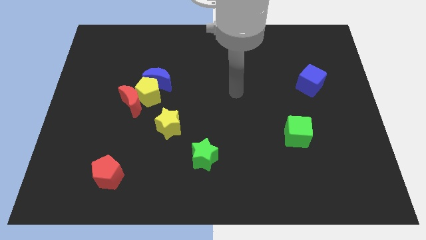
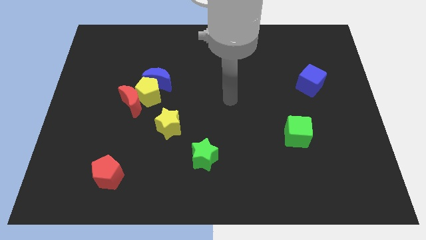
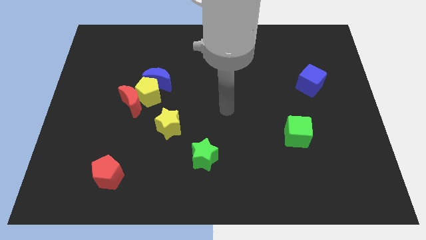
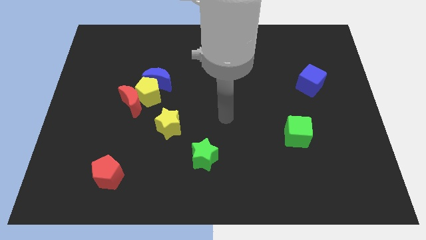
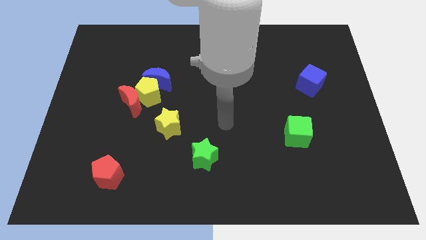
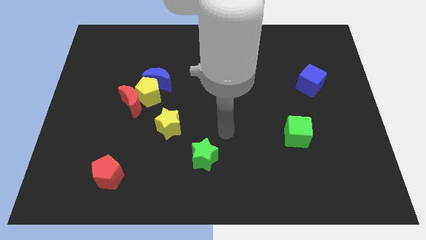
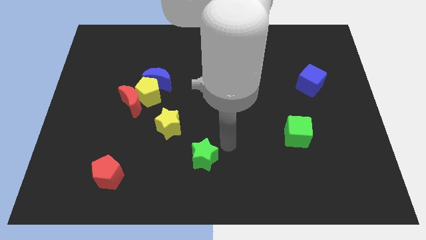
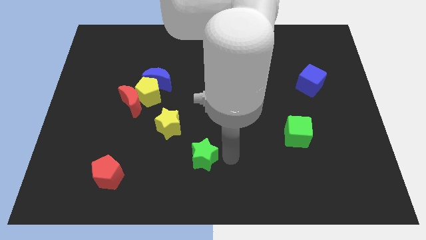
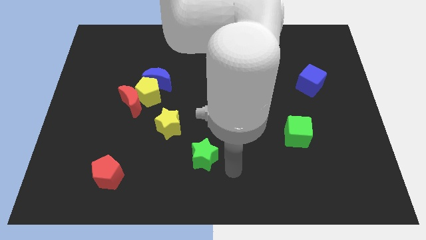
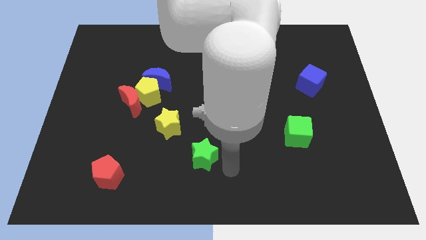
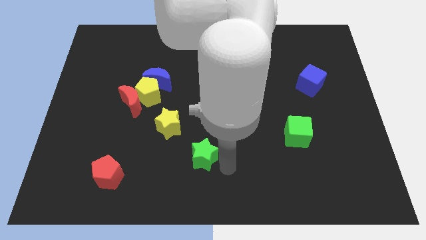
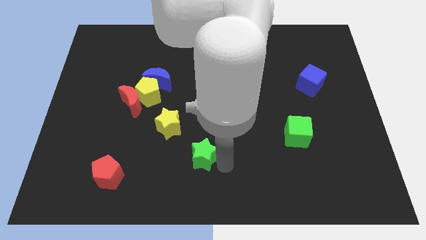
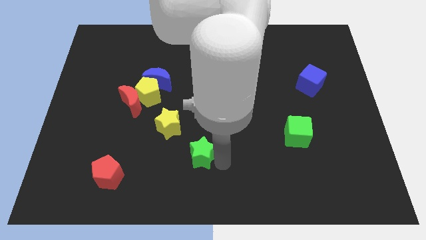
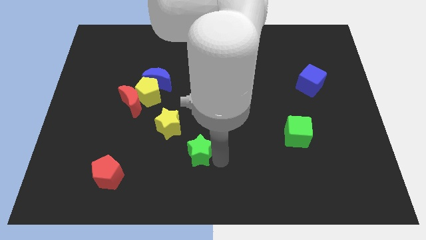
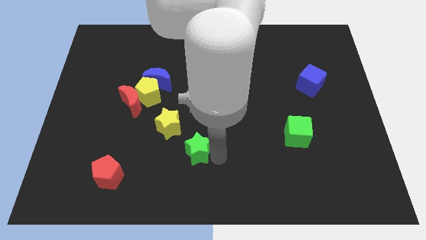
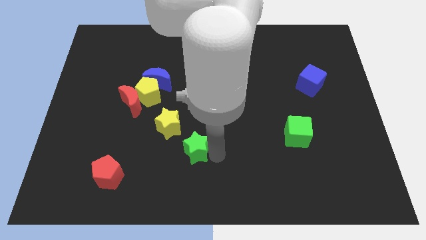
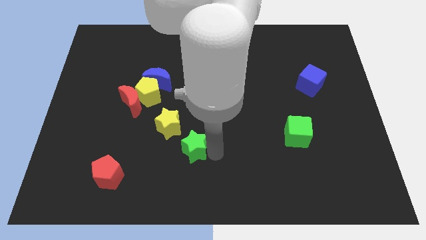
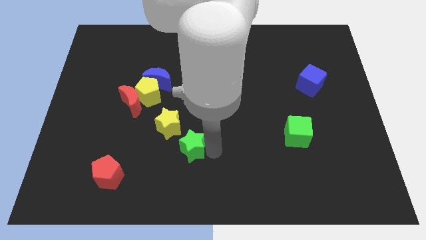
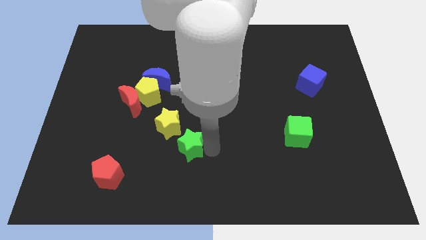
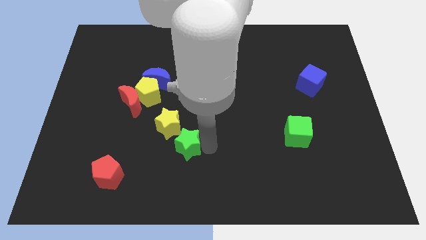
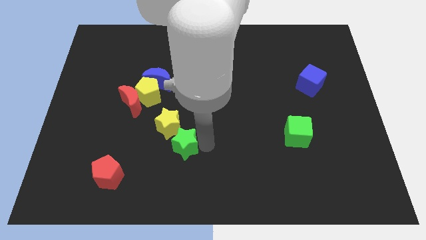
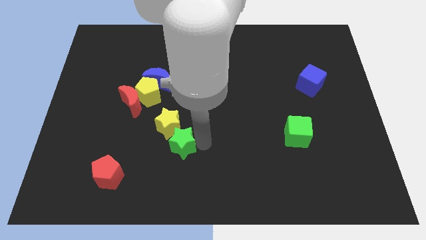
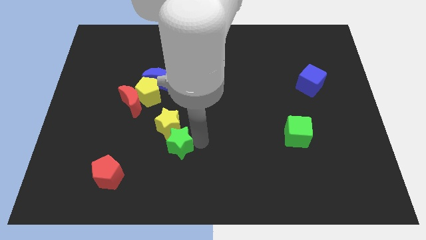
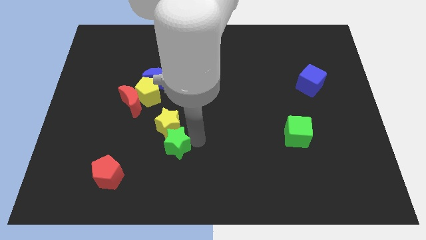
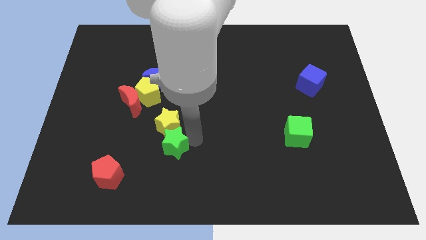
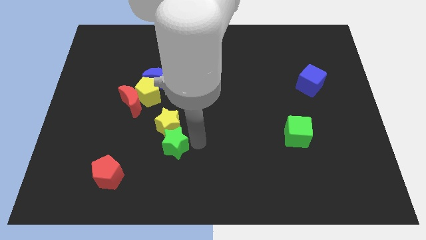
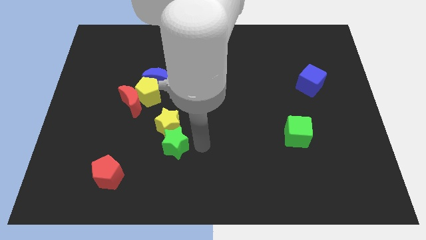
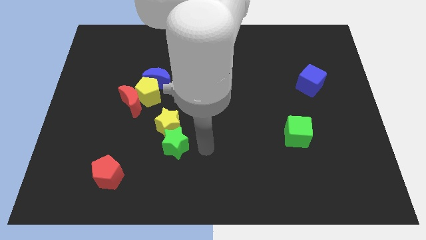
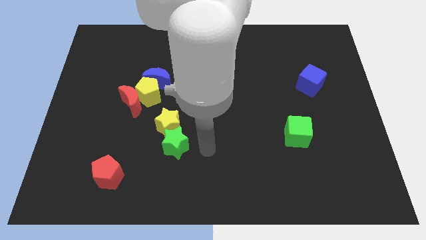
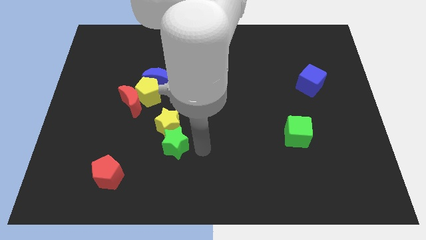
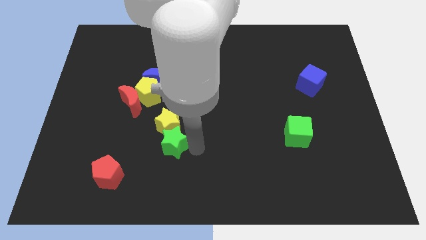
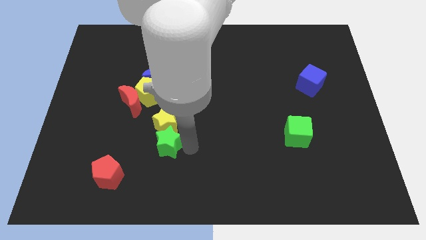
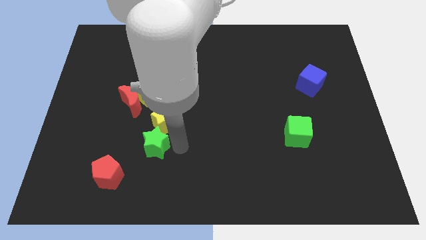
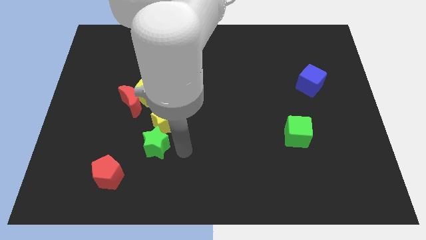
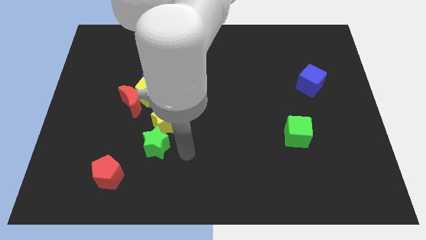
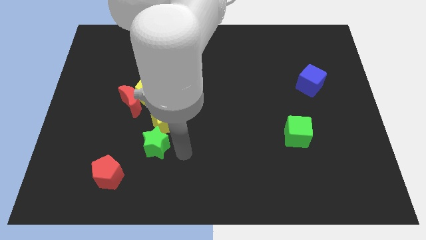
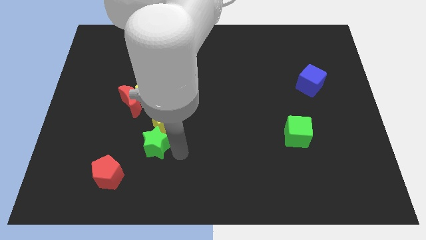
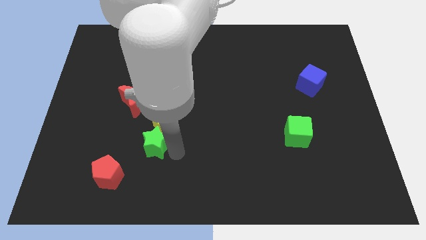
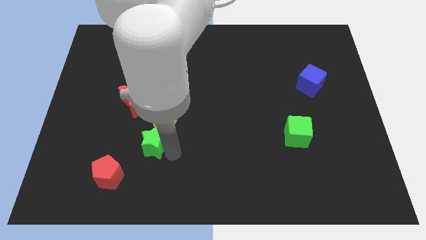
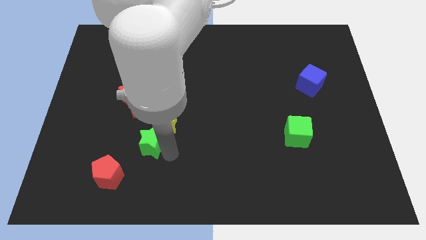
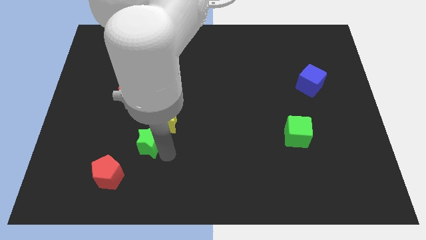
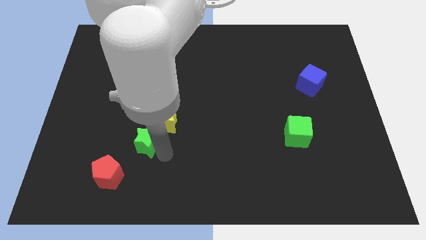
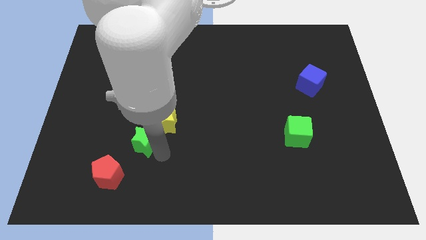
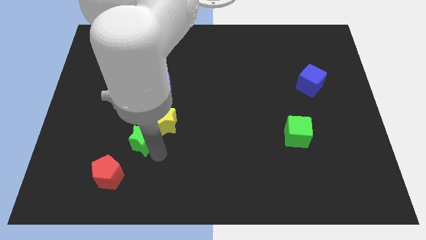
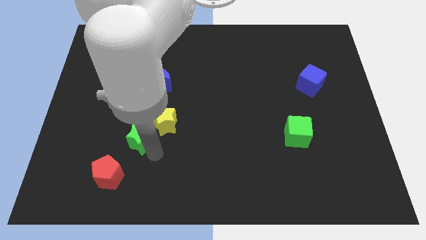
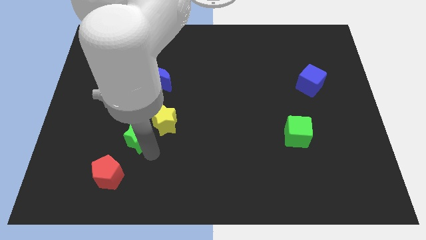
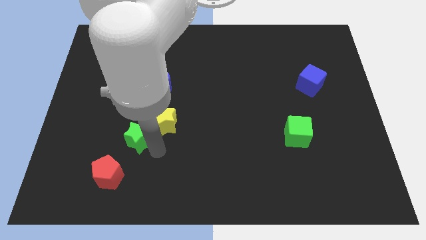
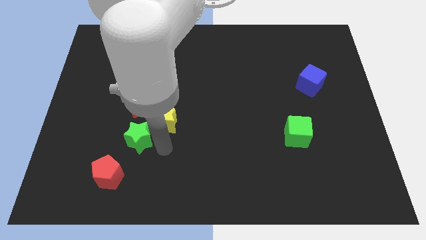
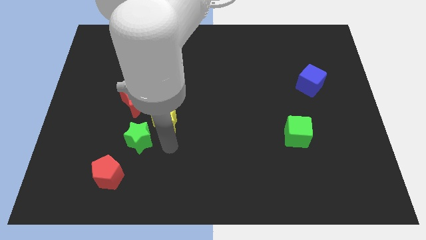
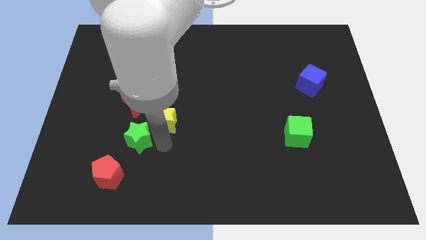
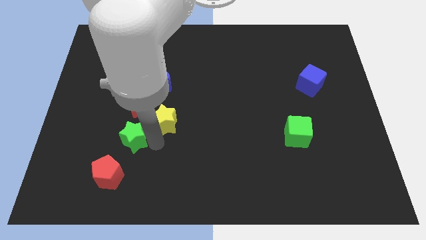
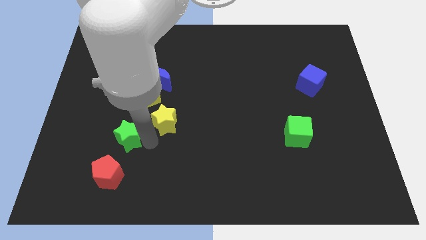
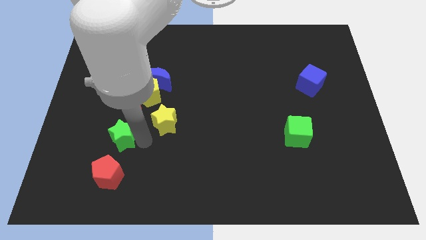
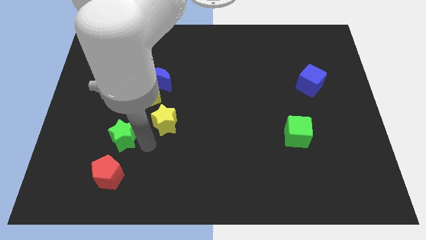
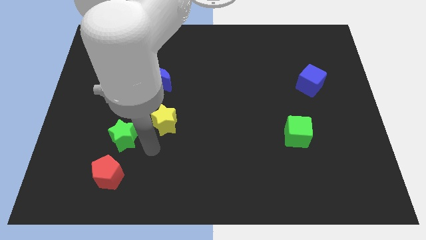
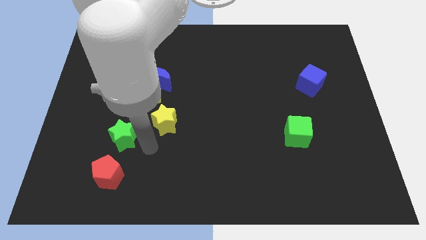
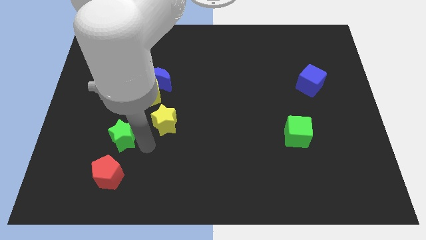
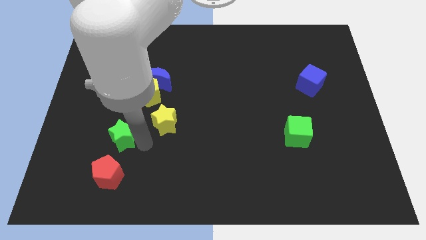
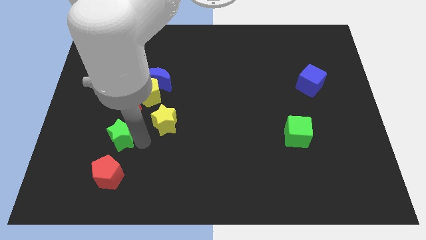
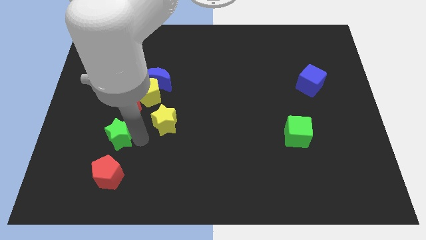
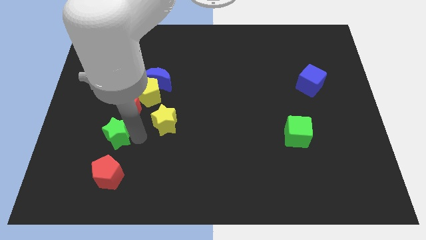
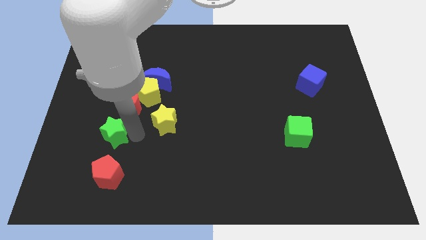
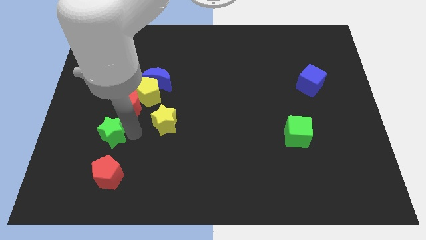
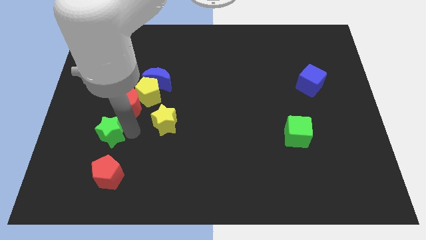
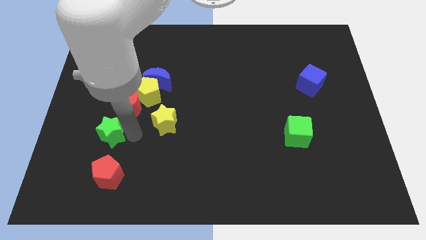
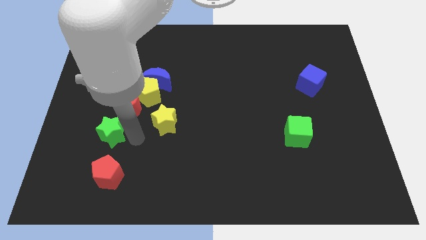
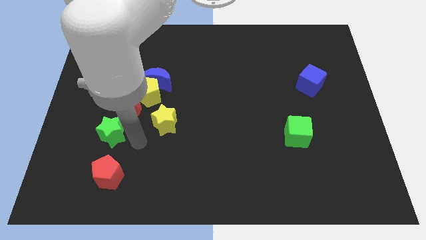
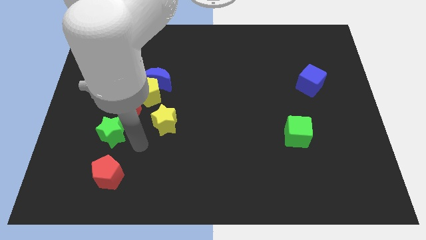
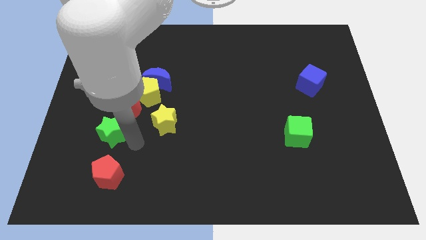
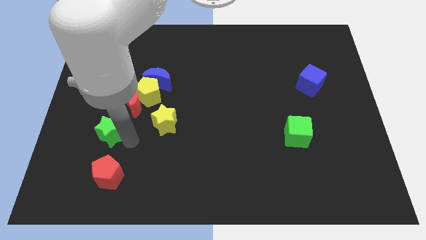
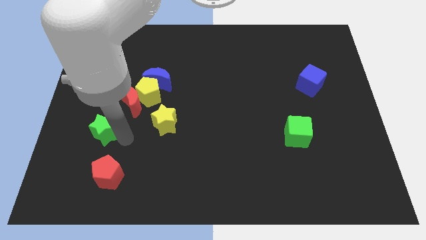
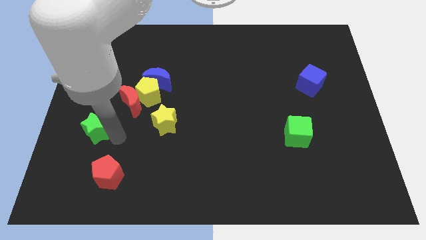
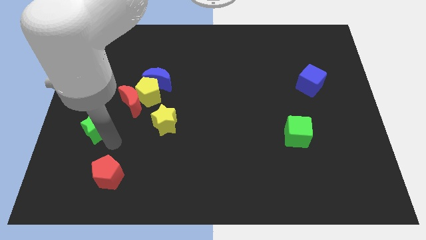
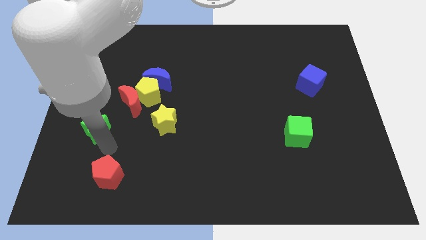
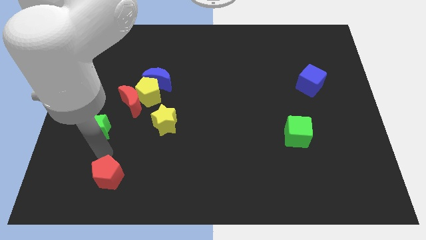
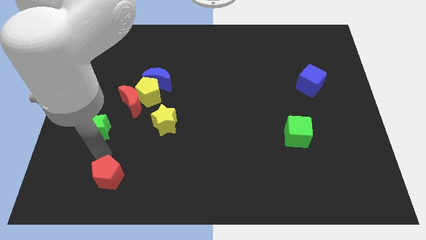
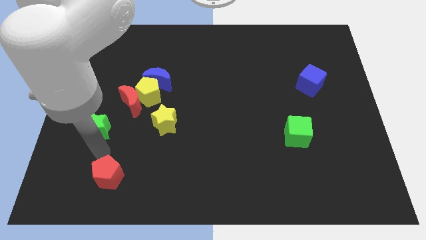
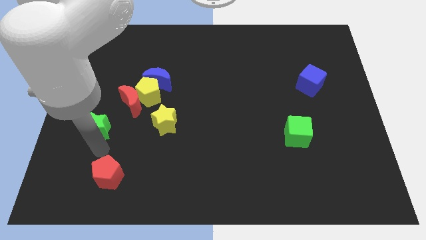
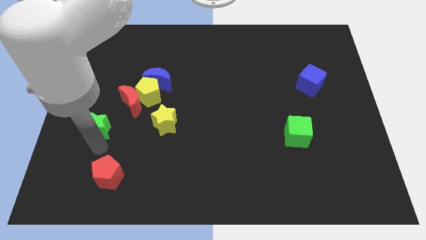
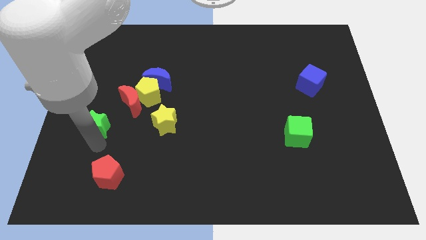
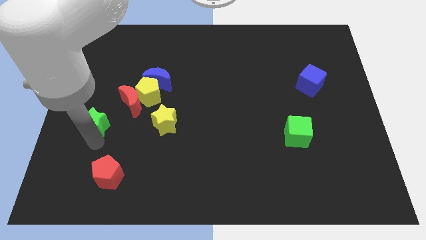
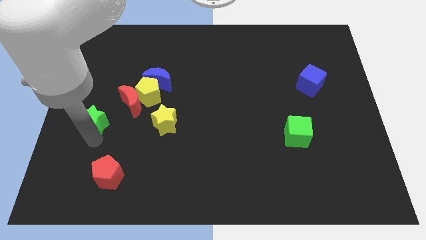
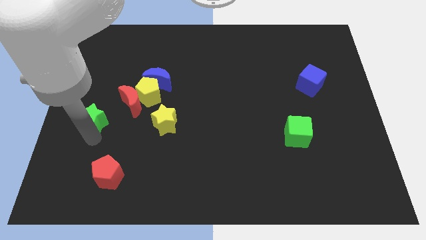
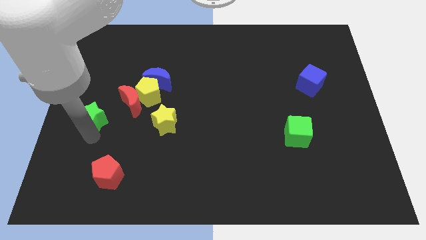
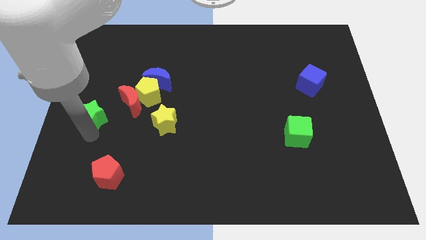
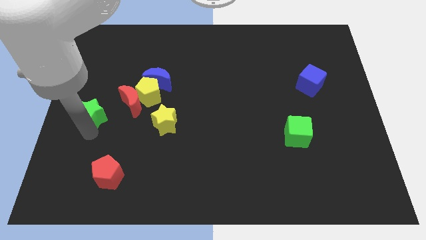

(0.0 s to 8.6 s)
push the green star diagonally up and to the left
